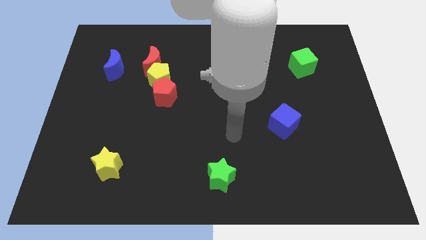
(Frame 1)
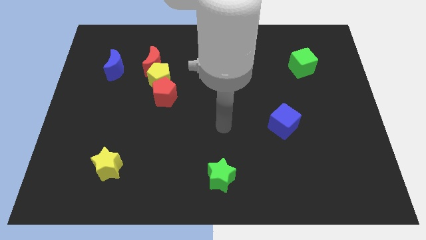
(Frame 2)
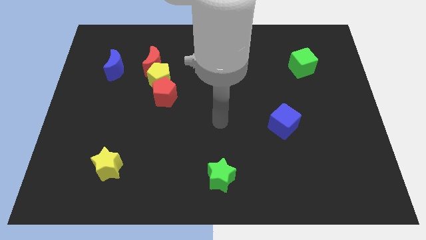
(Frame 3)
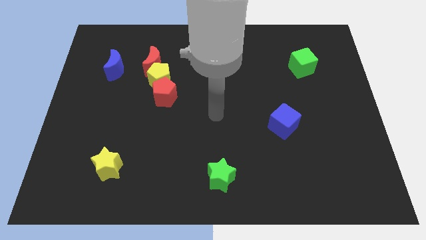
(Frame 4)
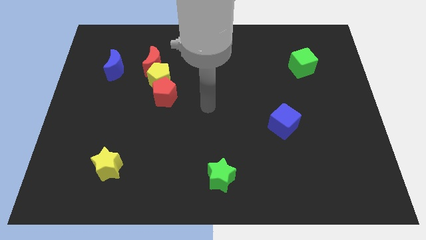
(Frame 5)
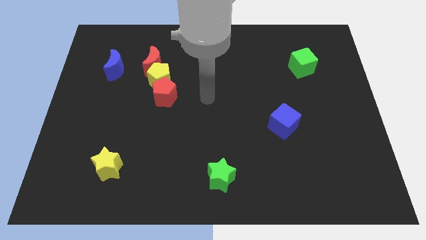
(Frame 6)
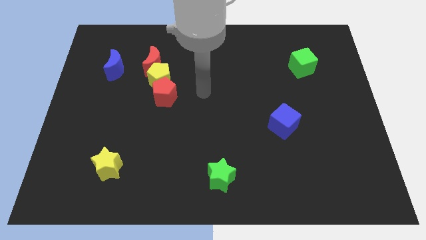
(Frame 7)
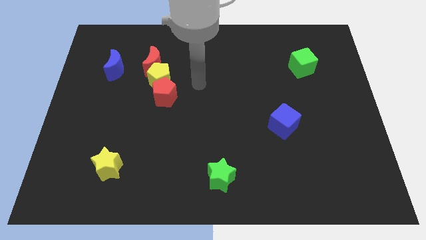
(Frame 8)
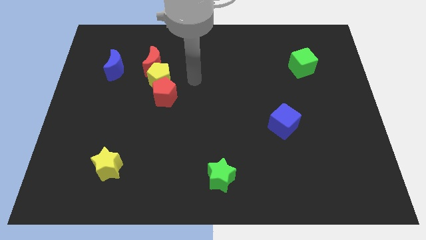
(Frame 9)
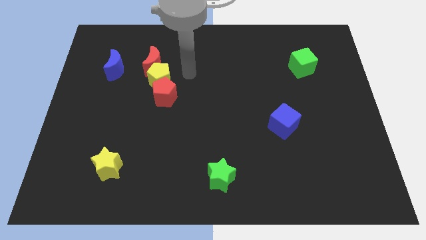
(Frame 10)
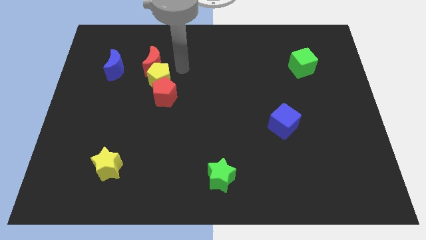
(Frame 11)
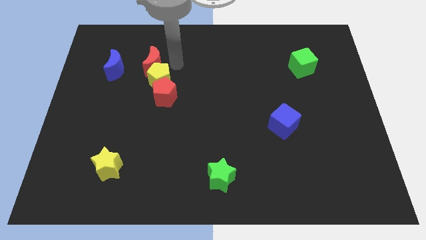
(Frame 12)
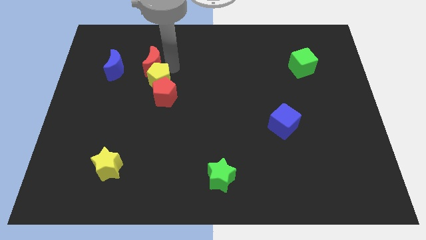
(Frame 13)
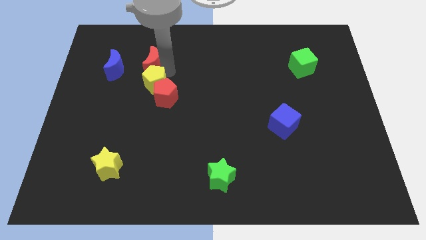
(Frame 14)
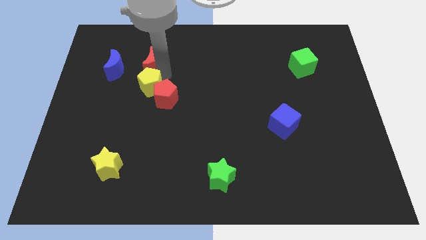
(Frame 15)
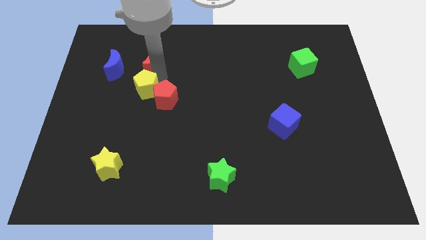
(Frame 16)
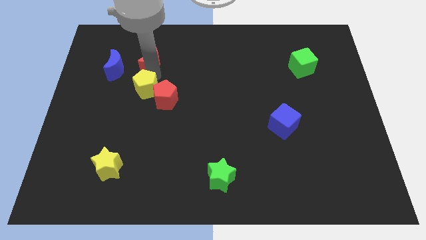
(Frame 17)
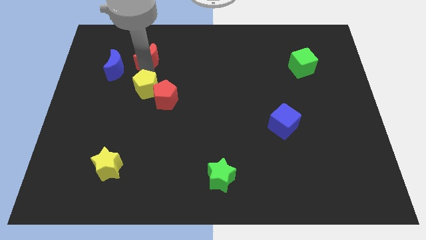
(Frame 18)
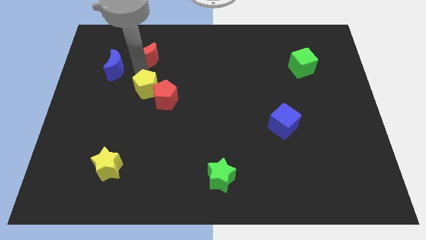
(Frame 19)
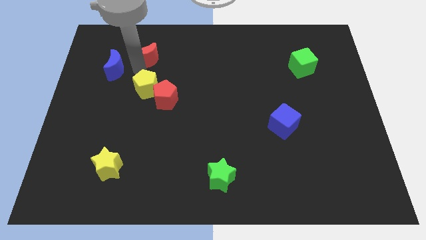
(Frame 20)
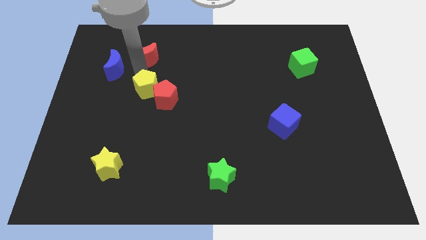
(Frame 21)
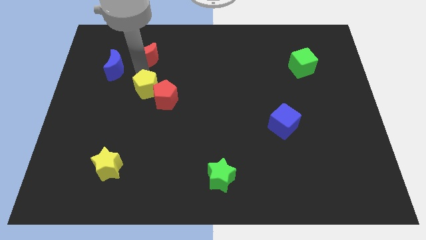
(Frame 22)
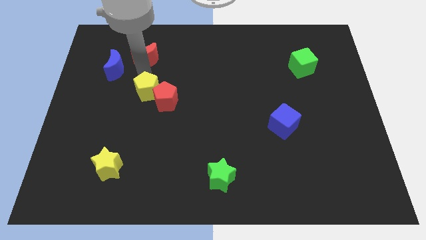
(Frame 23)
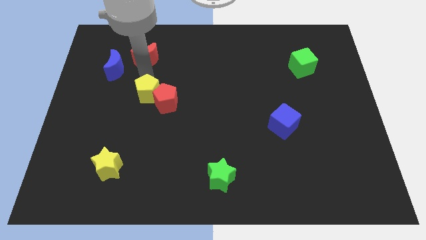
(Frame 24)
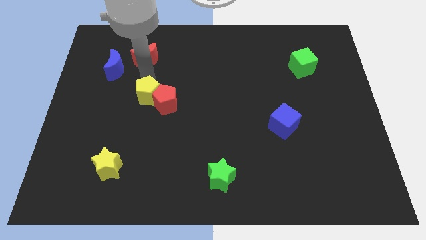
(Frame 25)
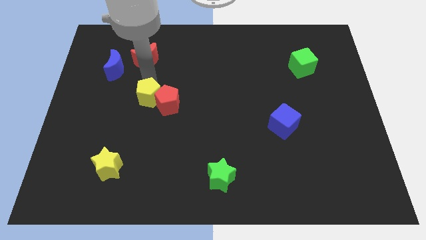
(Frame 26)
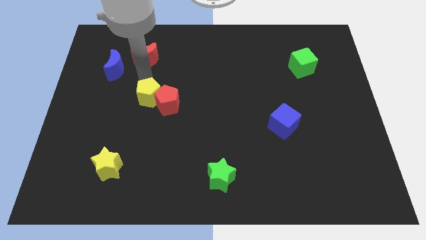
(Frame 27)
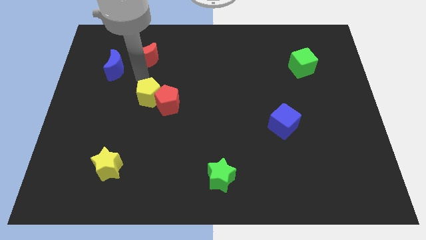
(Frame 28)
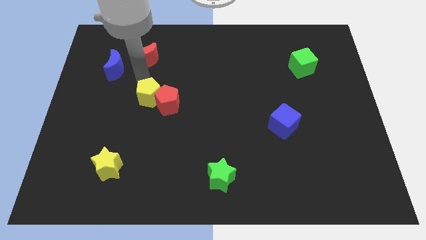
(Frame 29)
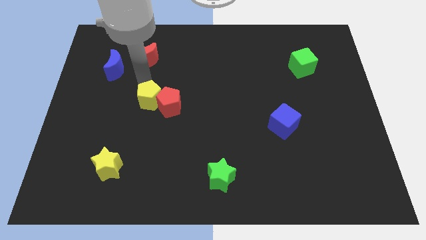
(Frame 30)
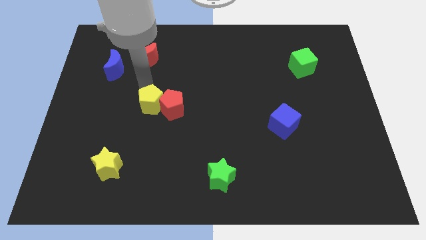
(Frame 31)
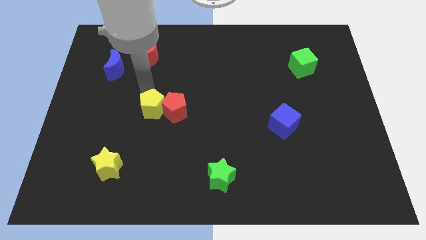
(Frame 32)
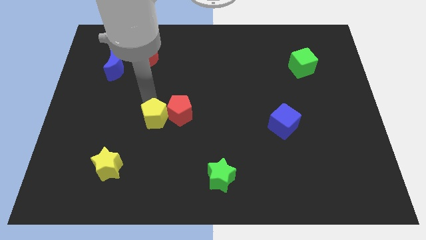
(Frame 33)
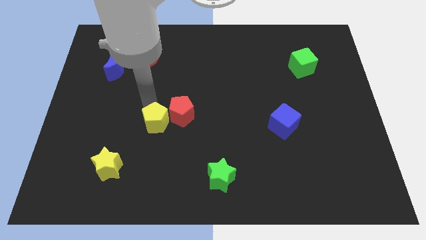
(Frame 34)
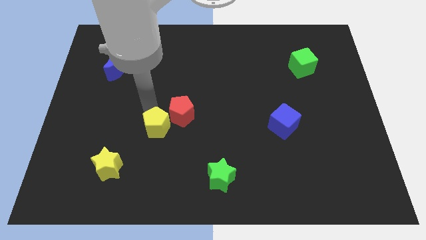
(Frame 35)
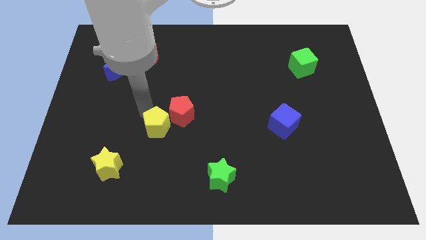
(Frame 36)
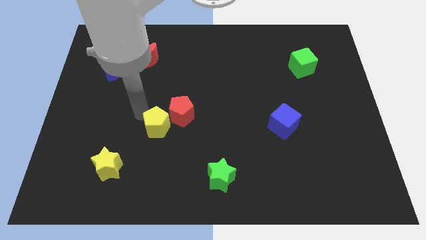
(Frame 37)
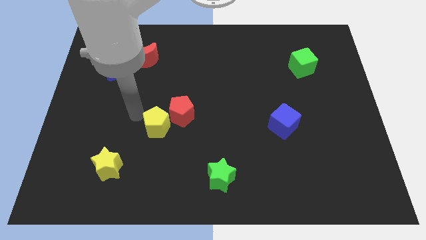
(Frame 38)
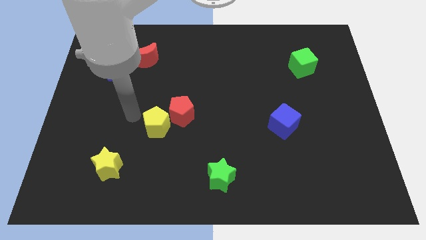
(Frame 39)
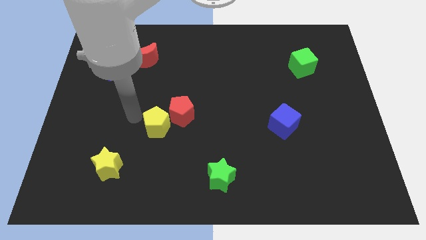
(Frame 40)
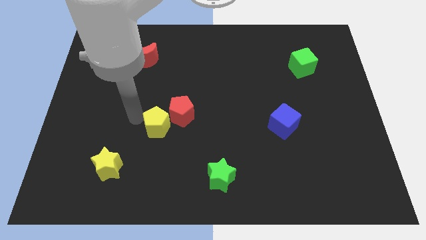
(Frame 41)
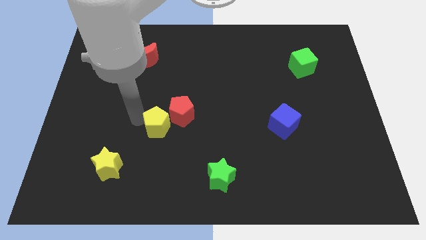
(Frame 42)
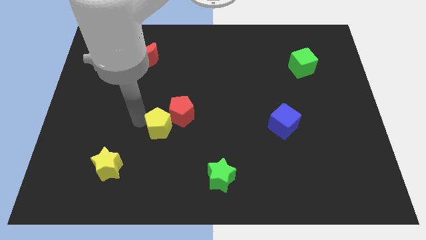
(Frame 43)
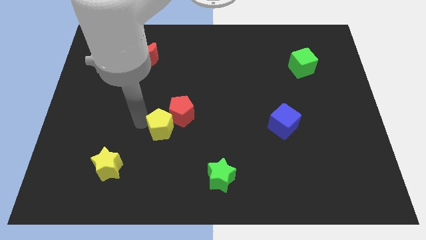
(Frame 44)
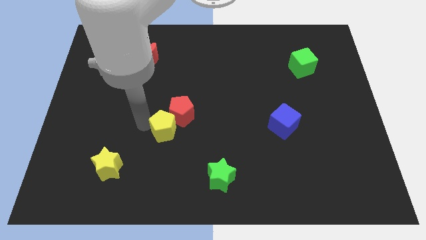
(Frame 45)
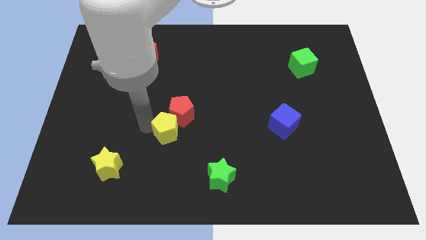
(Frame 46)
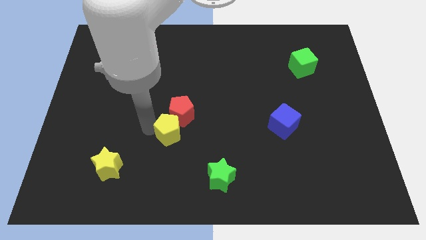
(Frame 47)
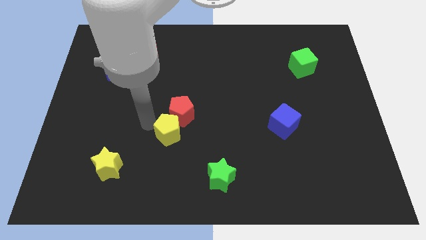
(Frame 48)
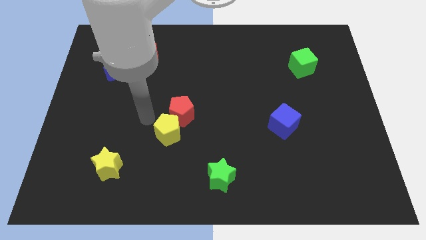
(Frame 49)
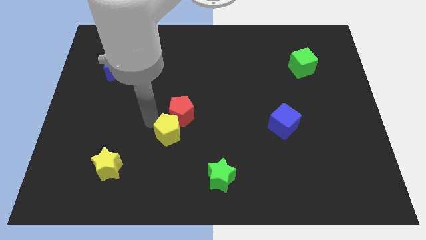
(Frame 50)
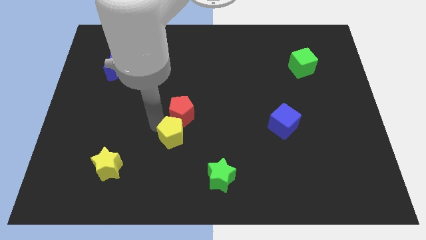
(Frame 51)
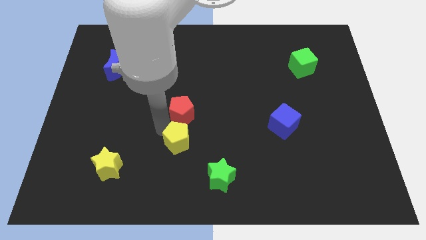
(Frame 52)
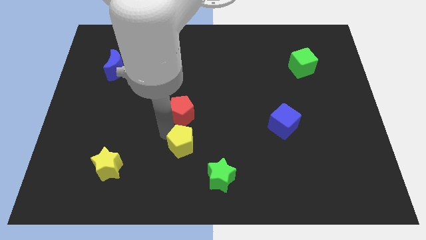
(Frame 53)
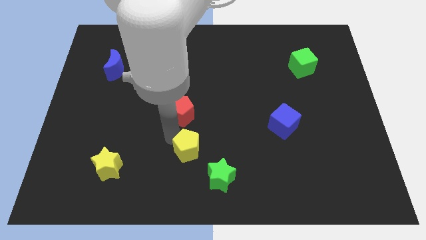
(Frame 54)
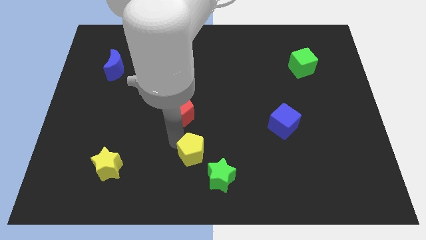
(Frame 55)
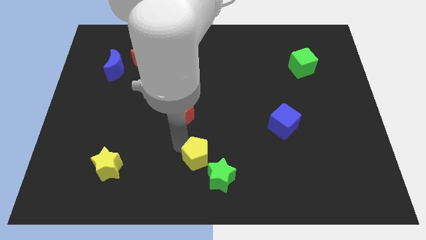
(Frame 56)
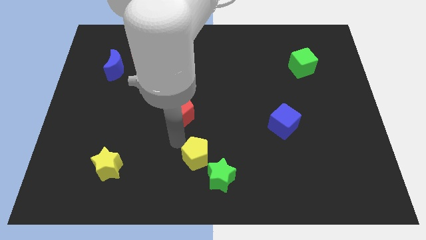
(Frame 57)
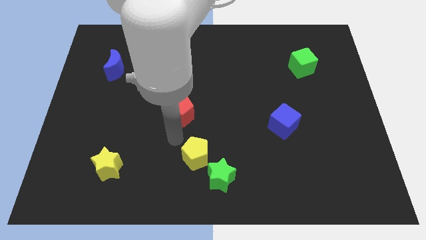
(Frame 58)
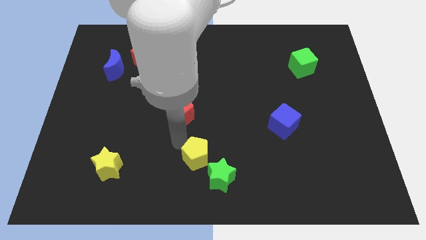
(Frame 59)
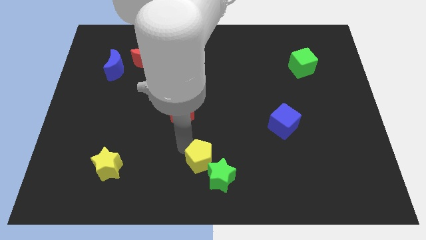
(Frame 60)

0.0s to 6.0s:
move the yellow pentagon to the green star

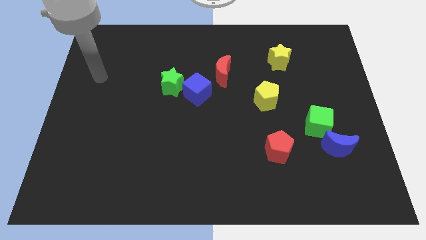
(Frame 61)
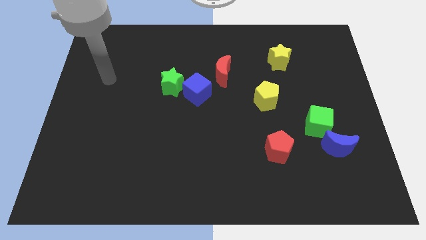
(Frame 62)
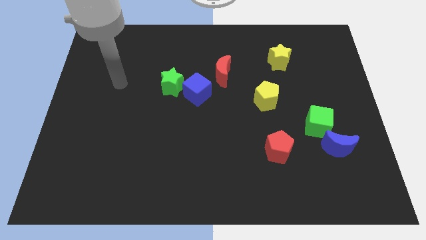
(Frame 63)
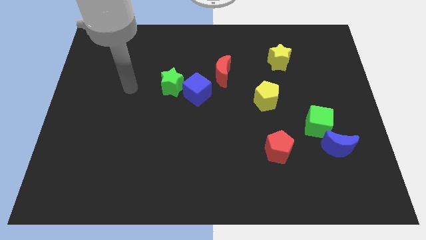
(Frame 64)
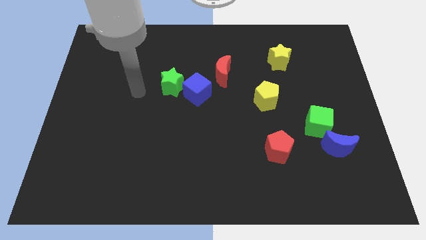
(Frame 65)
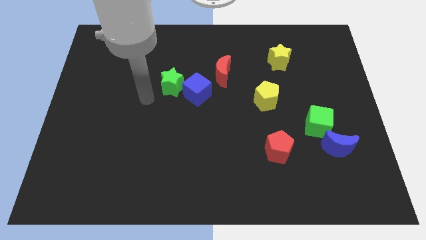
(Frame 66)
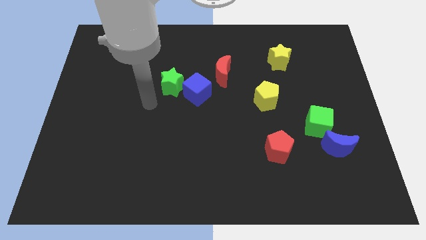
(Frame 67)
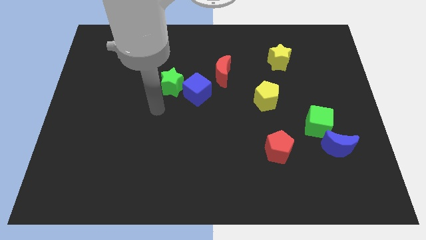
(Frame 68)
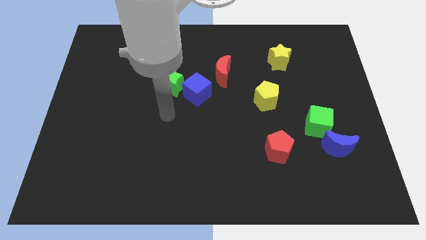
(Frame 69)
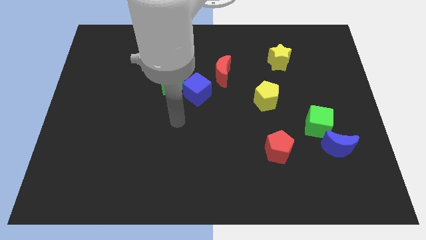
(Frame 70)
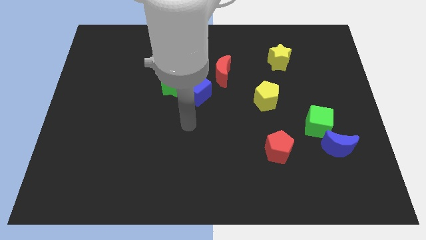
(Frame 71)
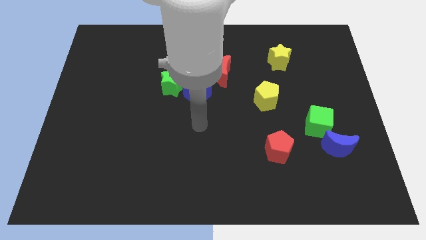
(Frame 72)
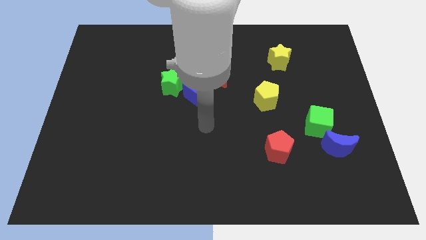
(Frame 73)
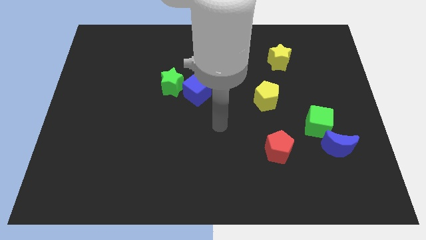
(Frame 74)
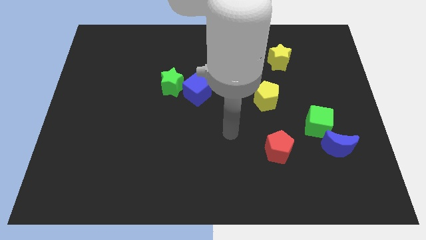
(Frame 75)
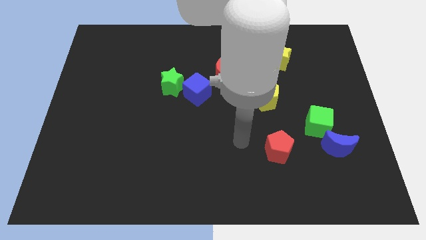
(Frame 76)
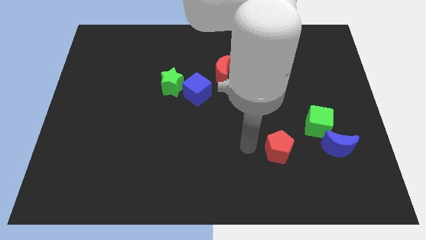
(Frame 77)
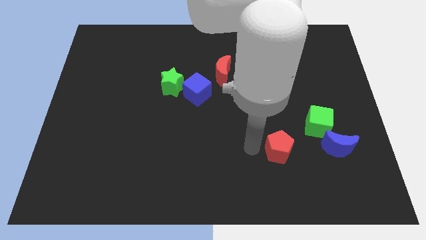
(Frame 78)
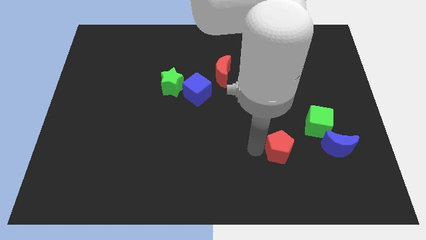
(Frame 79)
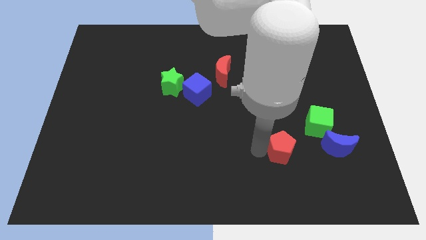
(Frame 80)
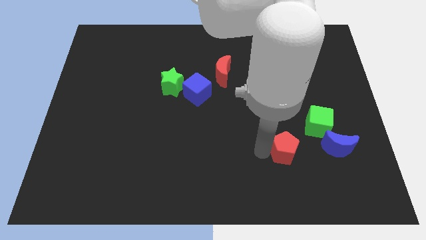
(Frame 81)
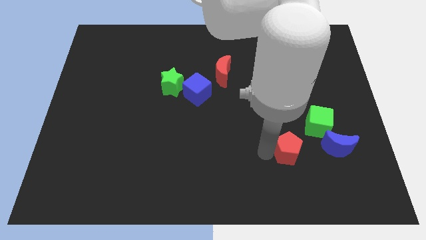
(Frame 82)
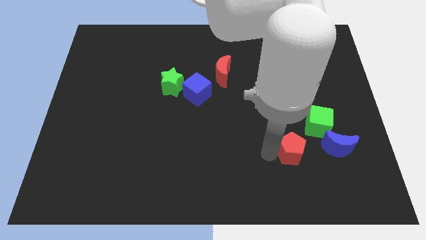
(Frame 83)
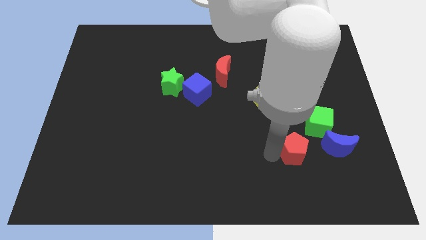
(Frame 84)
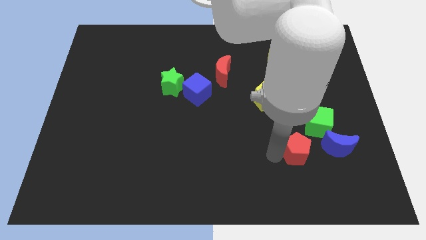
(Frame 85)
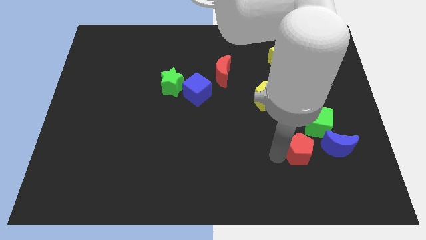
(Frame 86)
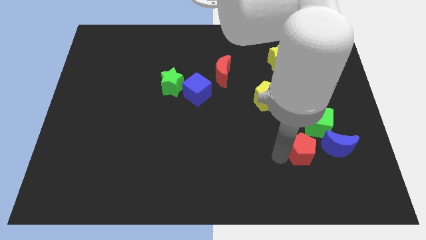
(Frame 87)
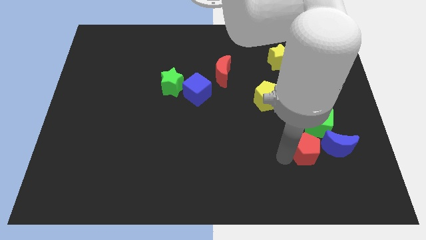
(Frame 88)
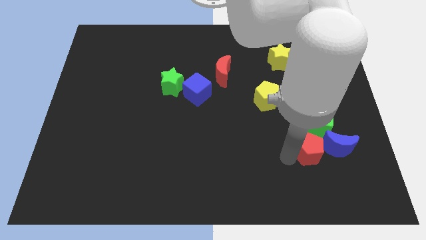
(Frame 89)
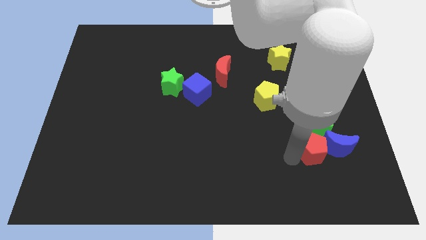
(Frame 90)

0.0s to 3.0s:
slide the red pentagon to the blue moon
